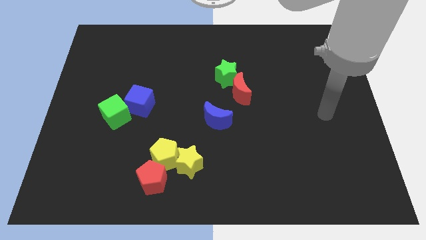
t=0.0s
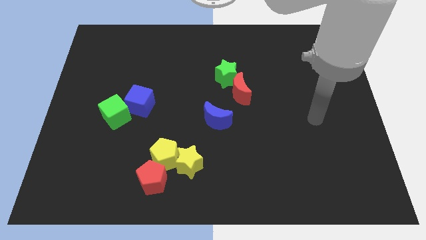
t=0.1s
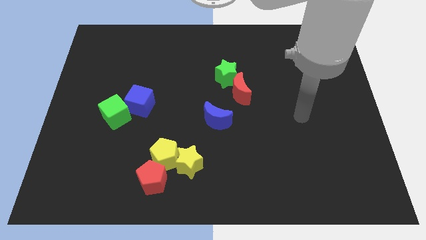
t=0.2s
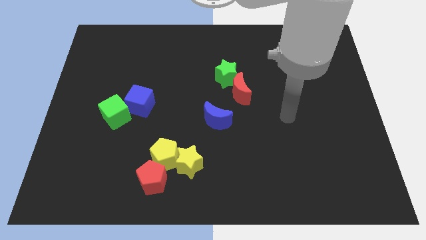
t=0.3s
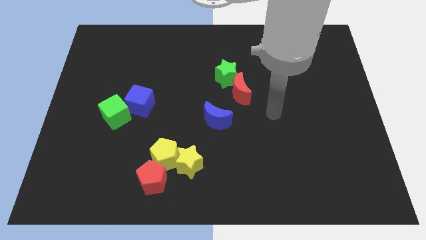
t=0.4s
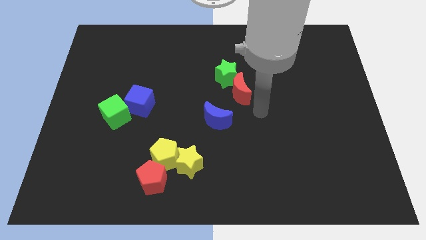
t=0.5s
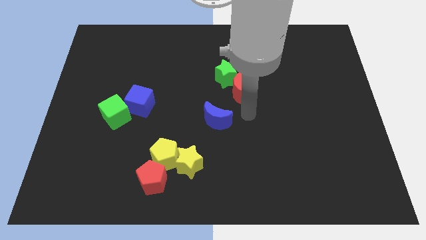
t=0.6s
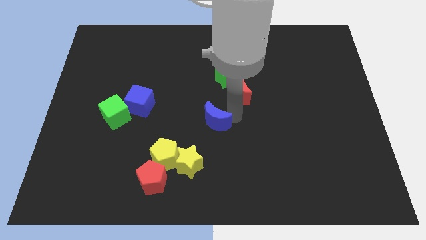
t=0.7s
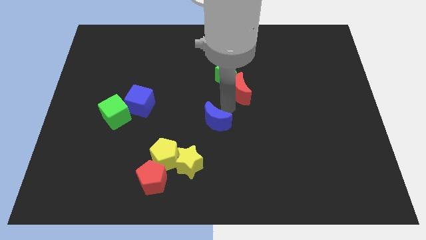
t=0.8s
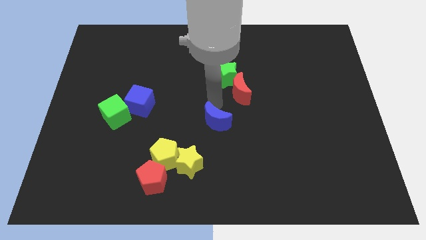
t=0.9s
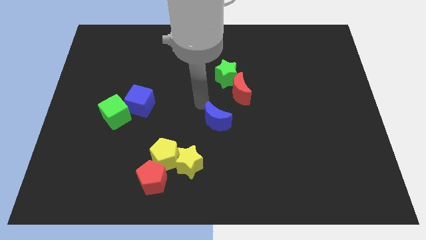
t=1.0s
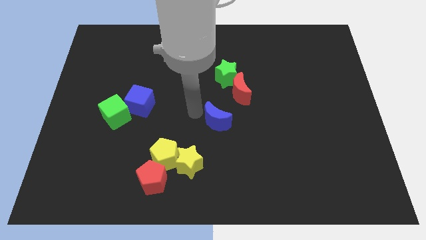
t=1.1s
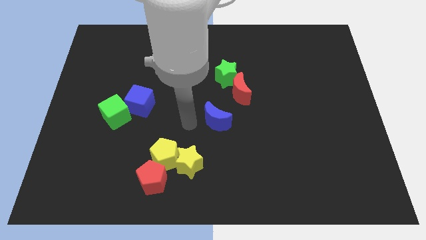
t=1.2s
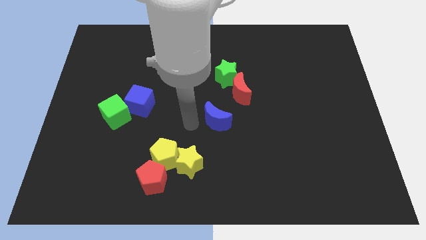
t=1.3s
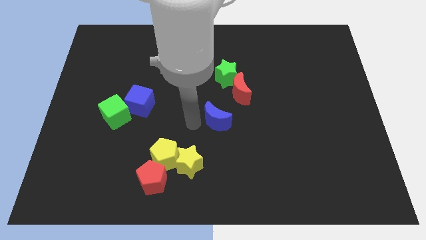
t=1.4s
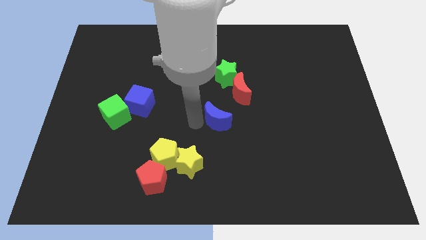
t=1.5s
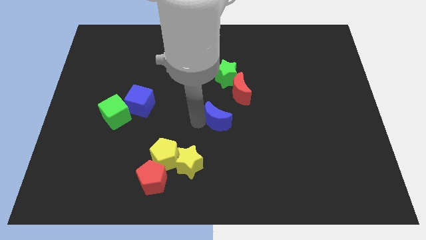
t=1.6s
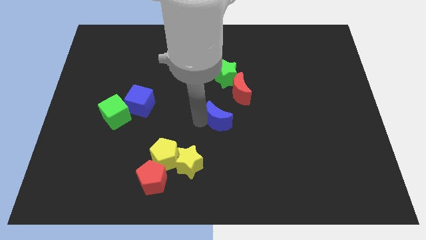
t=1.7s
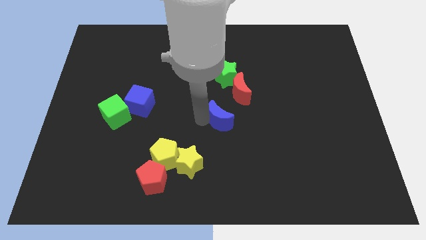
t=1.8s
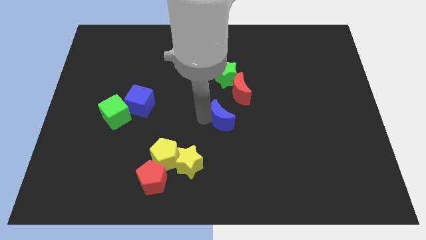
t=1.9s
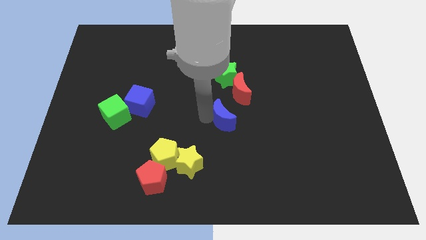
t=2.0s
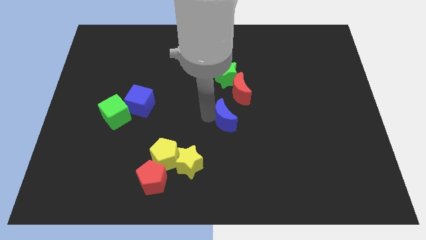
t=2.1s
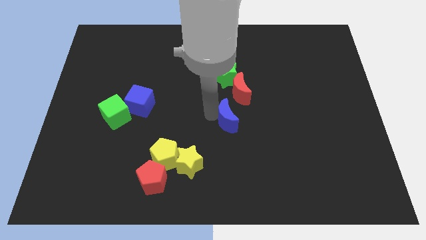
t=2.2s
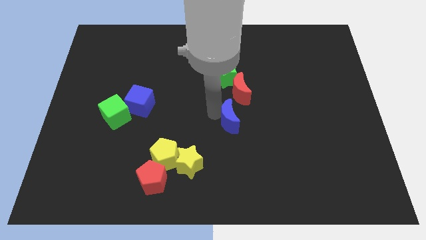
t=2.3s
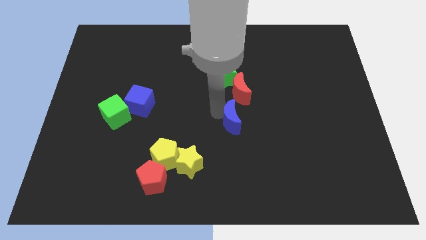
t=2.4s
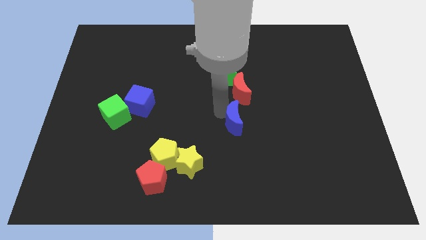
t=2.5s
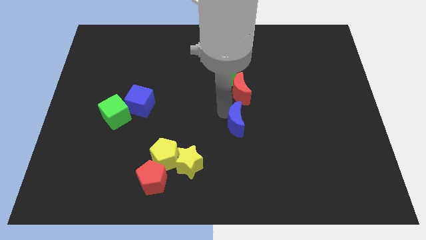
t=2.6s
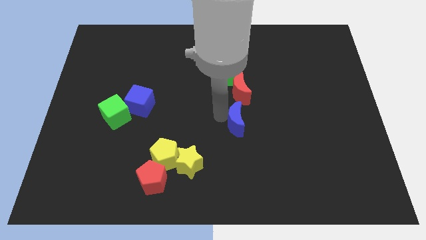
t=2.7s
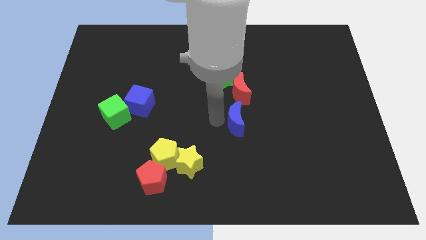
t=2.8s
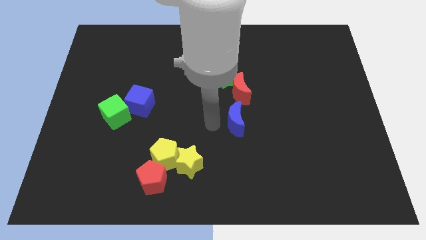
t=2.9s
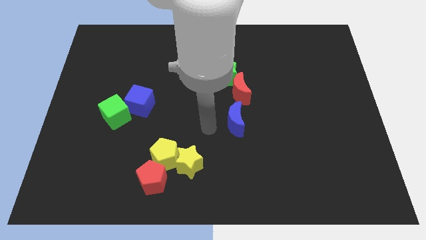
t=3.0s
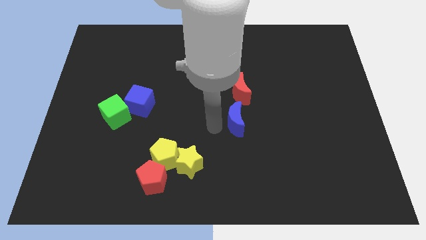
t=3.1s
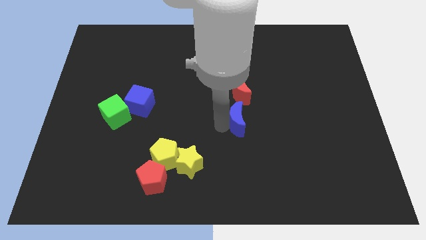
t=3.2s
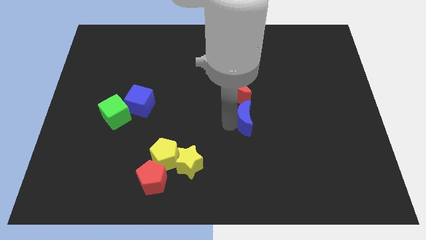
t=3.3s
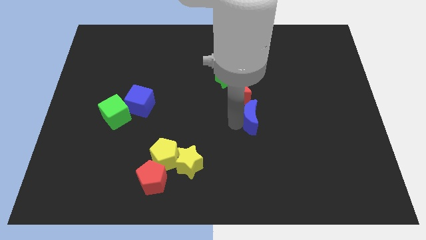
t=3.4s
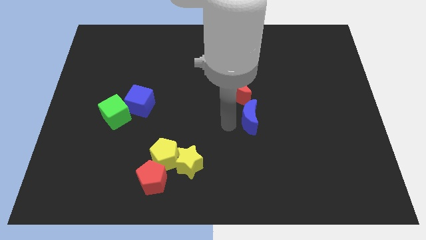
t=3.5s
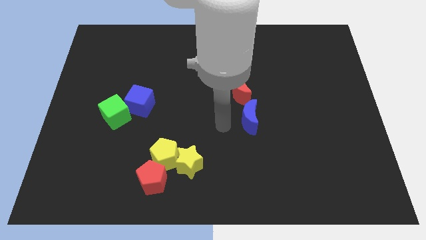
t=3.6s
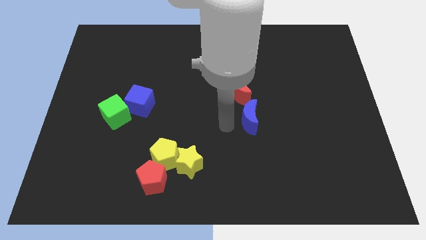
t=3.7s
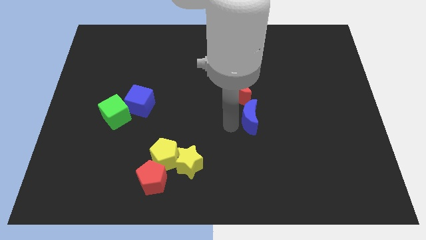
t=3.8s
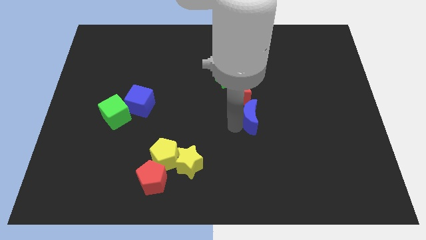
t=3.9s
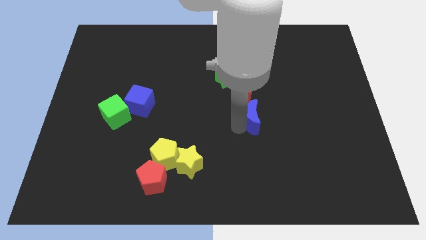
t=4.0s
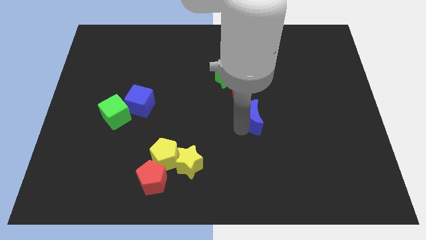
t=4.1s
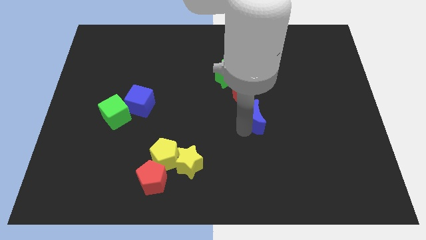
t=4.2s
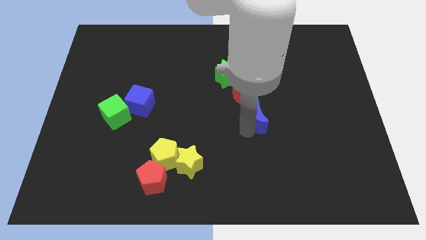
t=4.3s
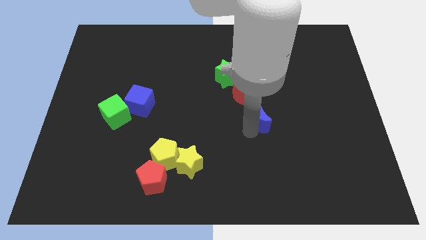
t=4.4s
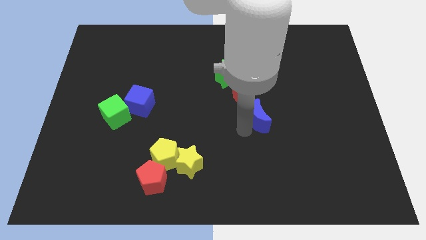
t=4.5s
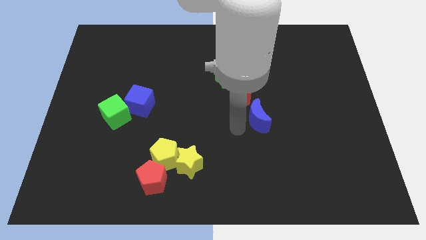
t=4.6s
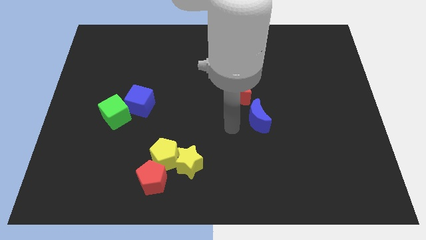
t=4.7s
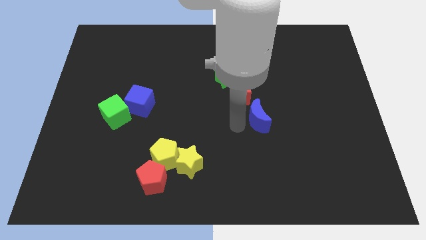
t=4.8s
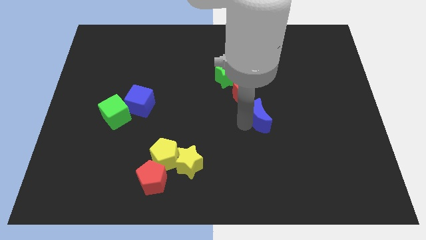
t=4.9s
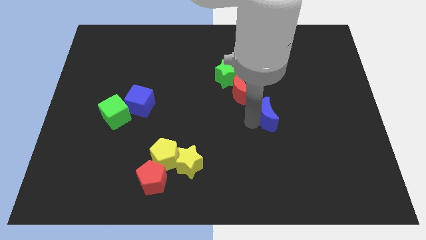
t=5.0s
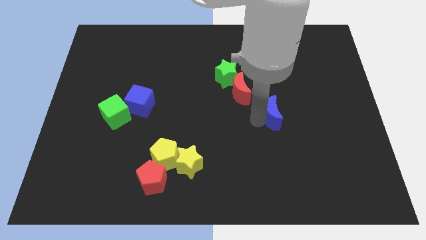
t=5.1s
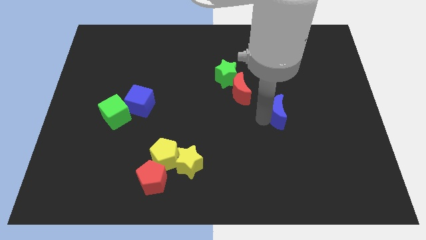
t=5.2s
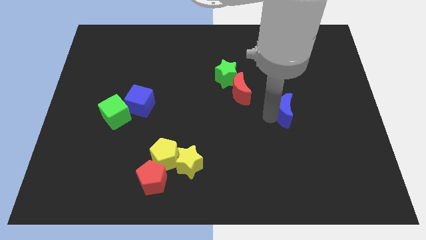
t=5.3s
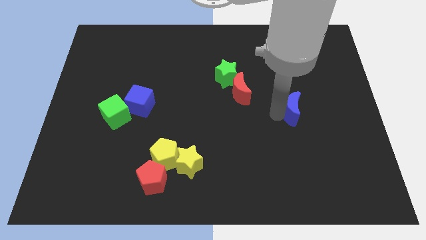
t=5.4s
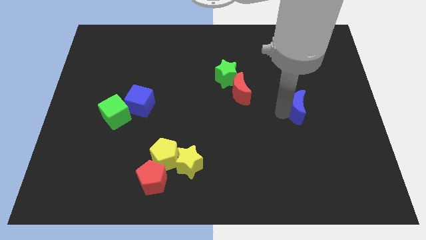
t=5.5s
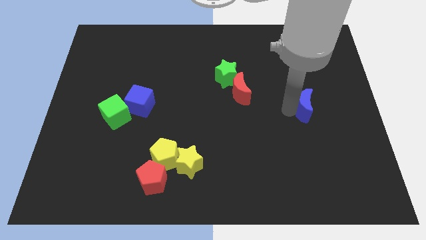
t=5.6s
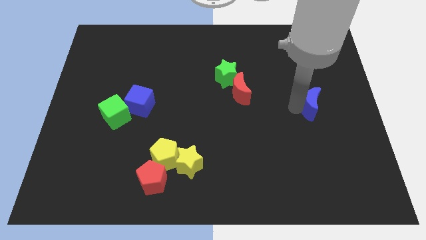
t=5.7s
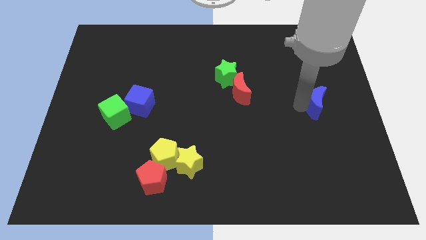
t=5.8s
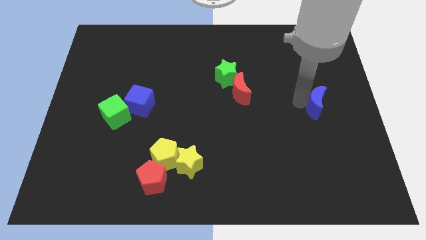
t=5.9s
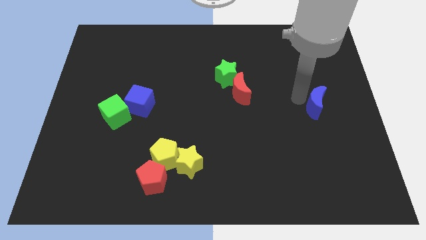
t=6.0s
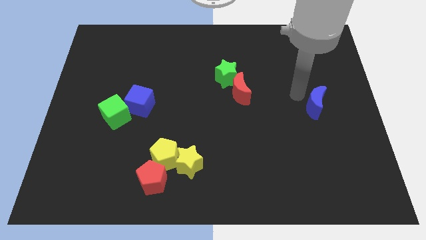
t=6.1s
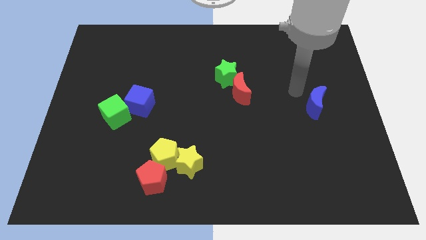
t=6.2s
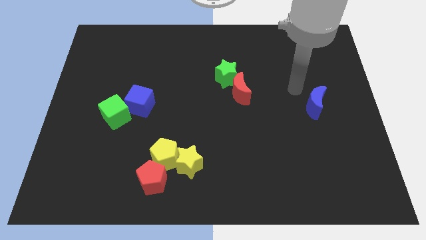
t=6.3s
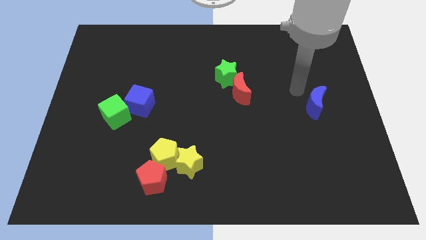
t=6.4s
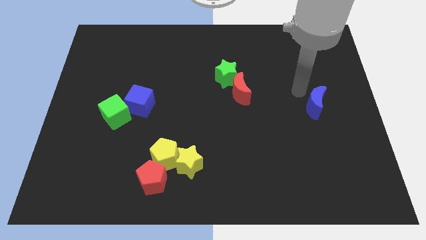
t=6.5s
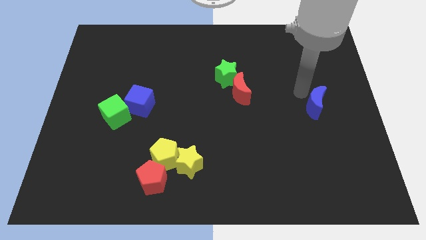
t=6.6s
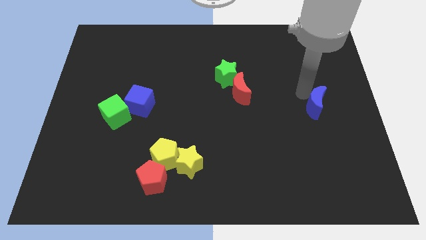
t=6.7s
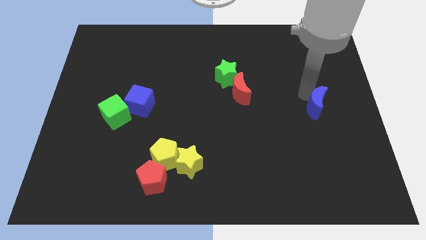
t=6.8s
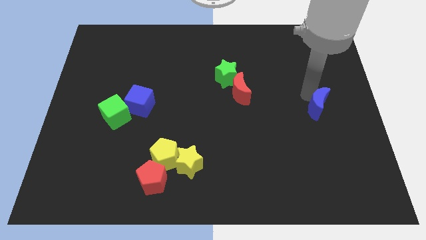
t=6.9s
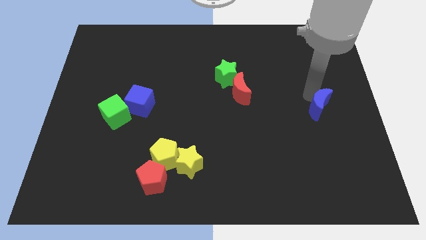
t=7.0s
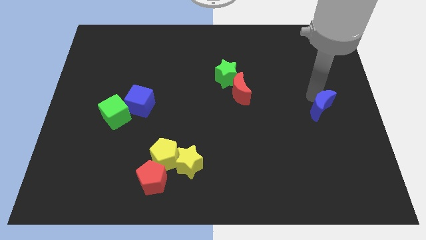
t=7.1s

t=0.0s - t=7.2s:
slide the blue moon to the right side of the board
